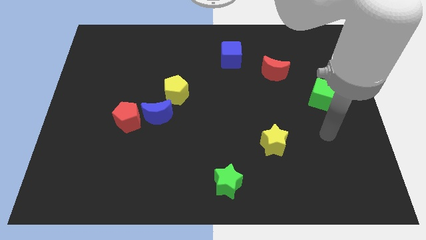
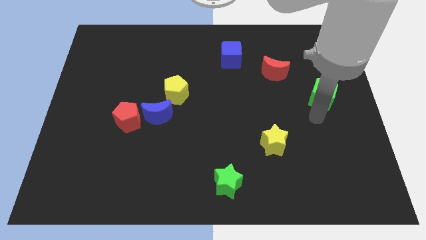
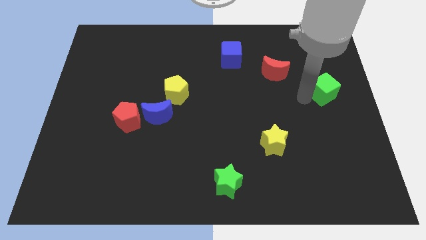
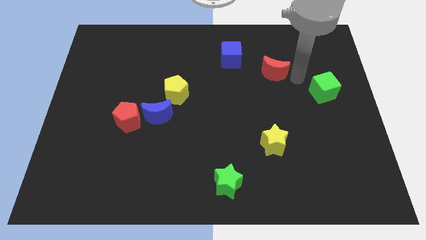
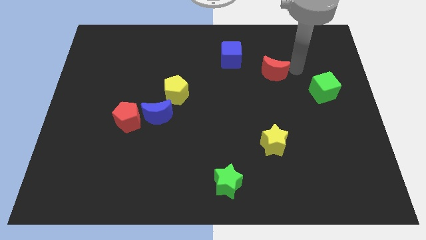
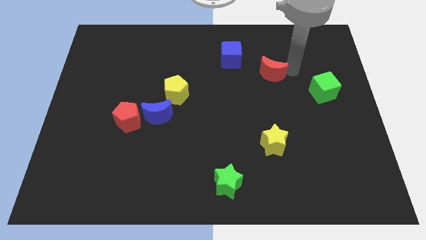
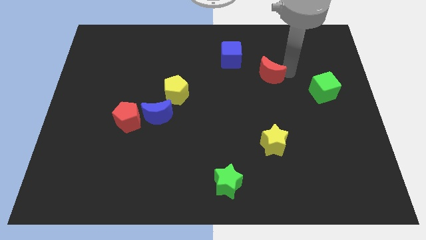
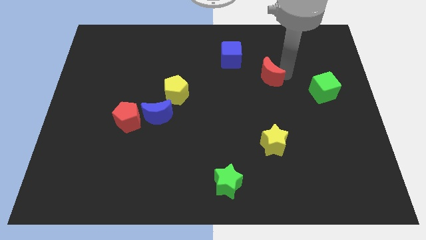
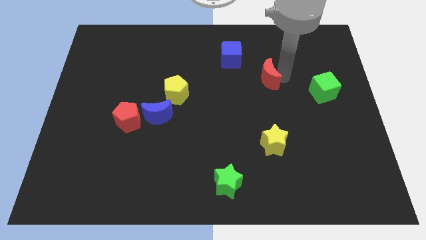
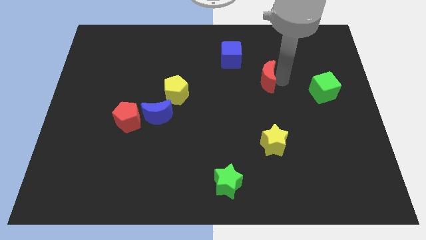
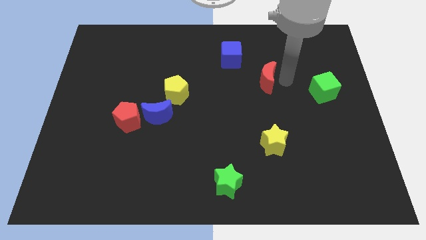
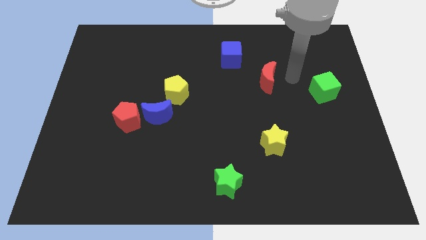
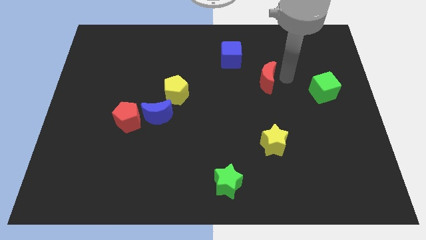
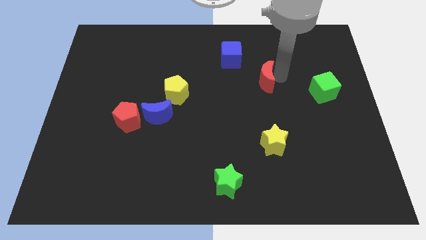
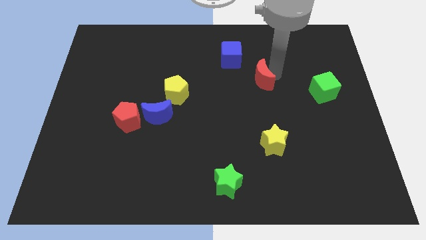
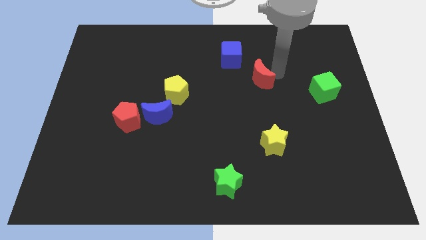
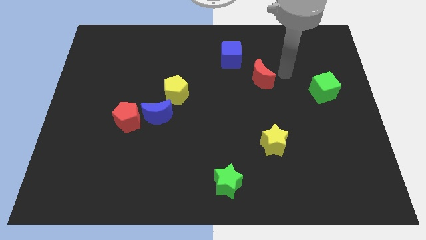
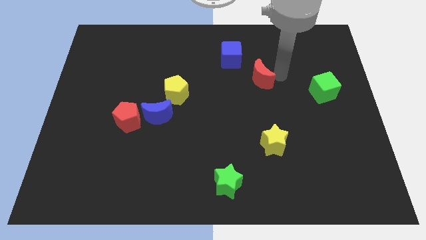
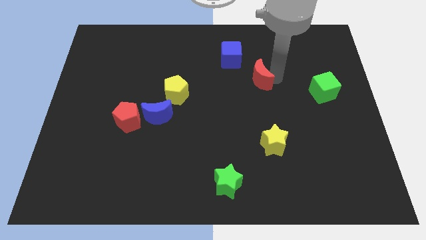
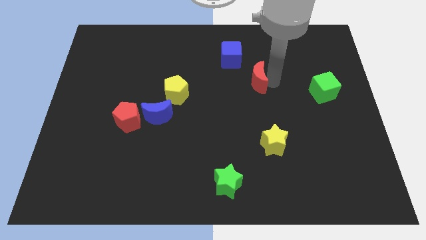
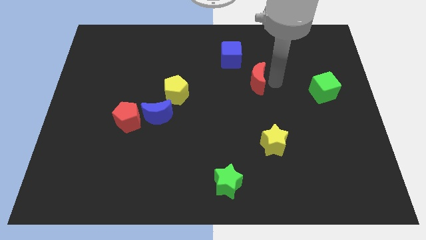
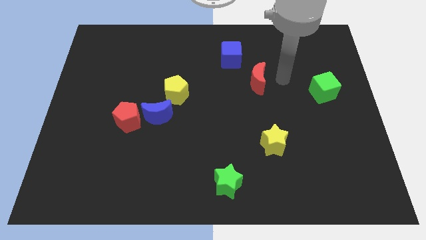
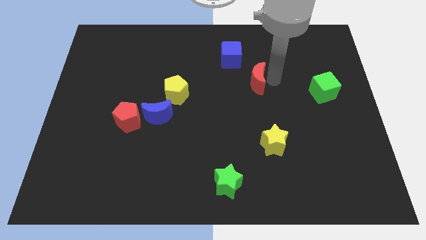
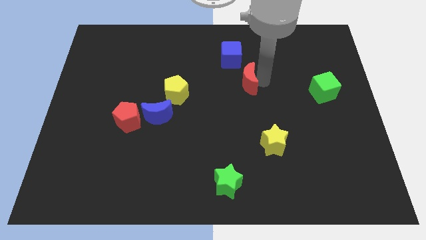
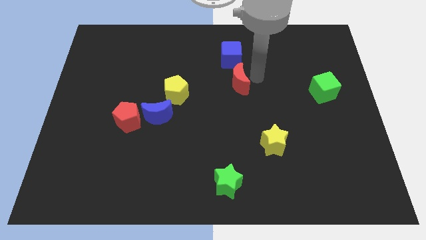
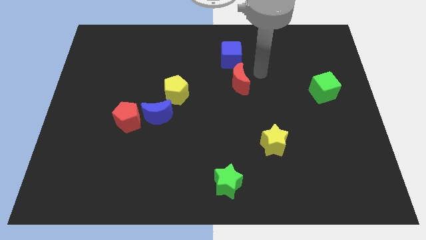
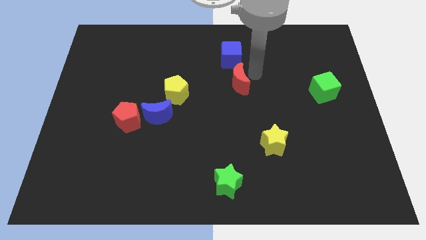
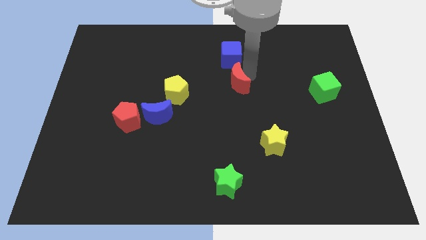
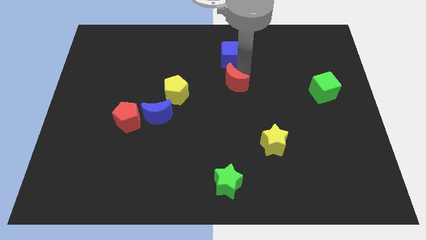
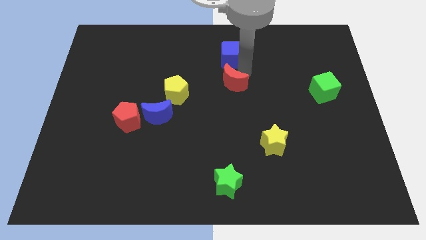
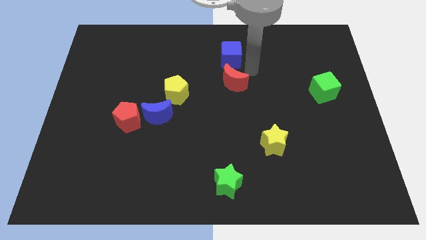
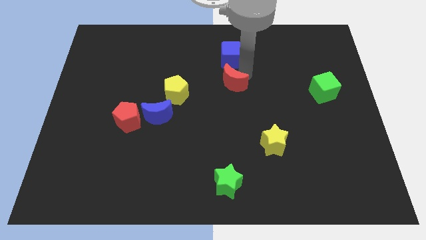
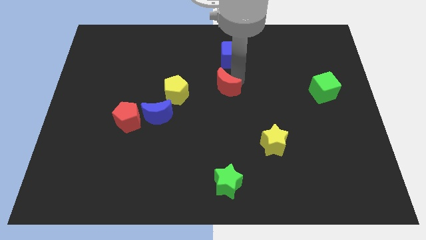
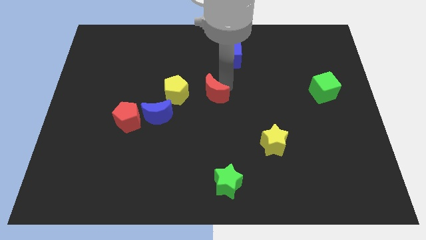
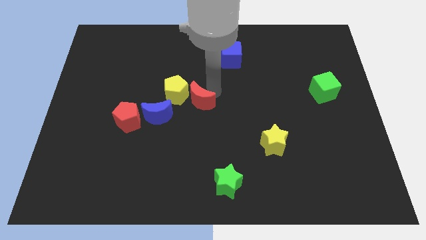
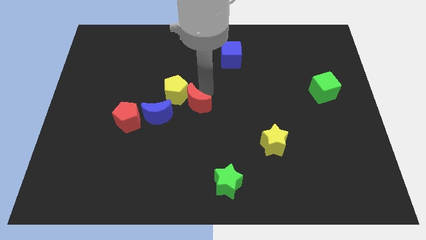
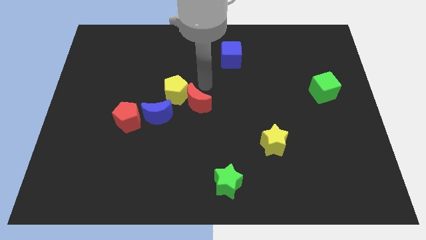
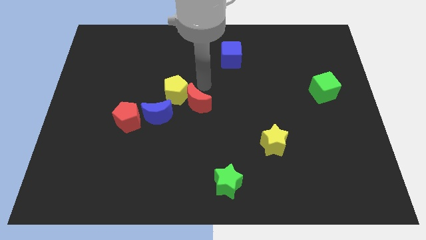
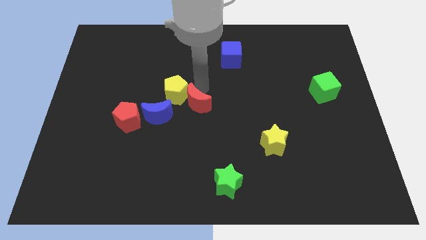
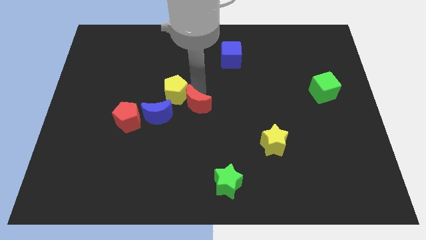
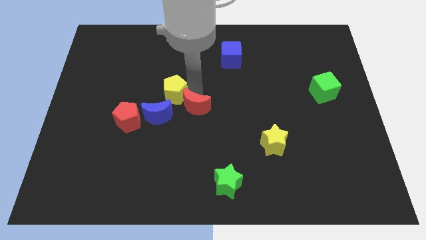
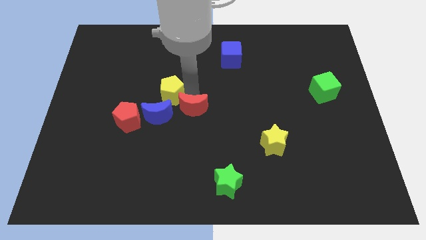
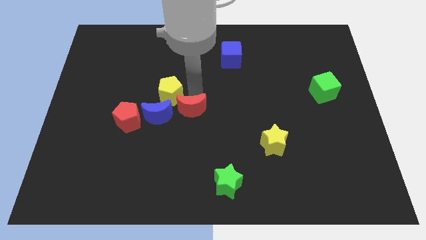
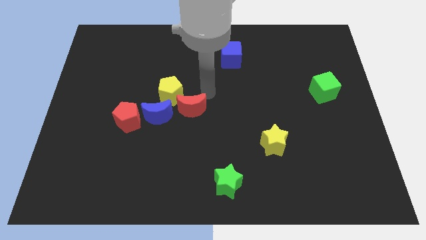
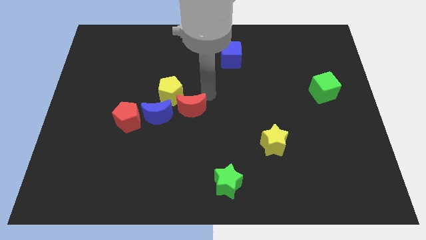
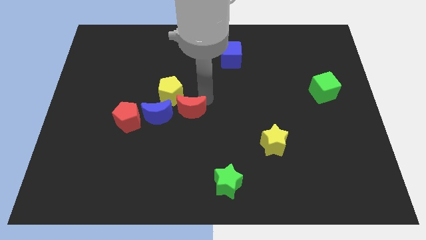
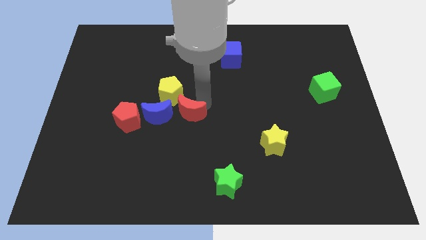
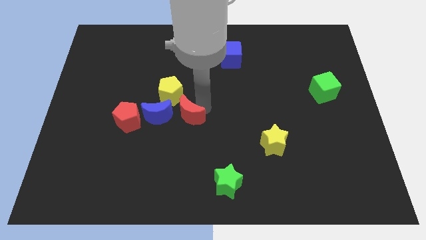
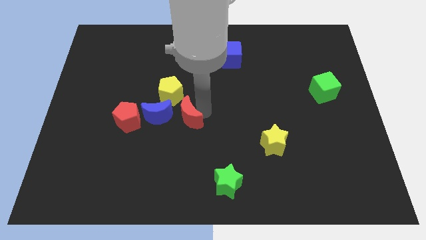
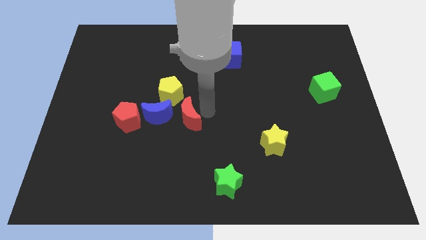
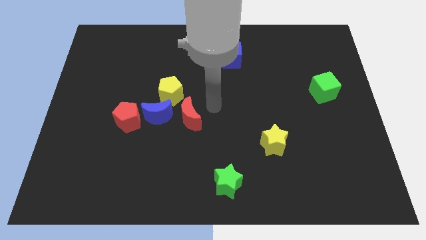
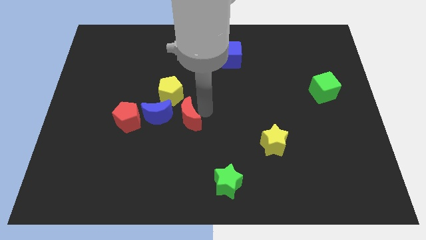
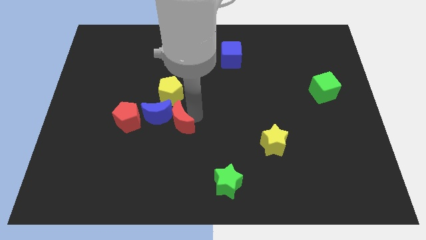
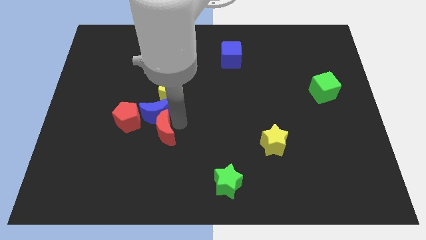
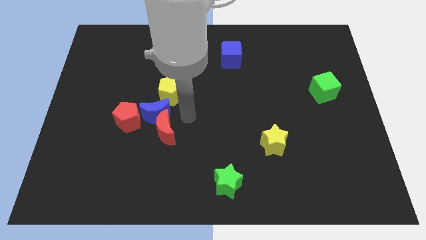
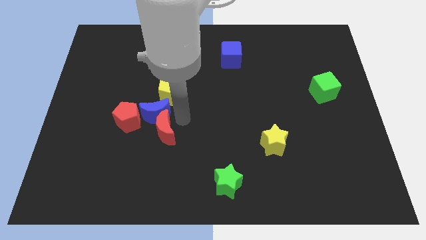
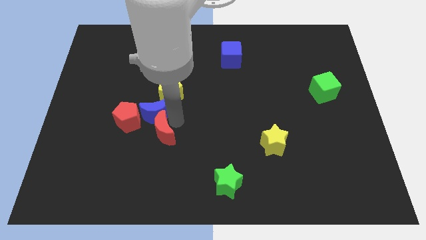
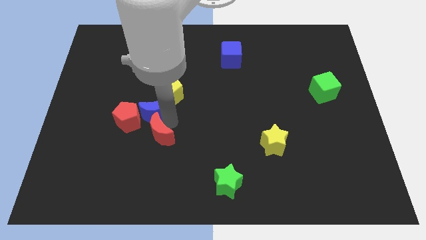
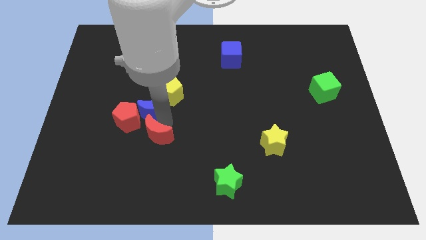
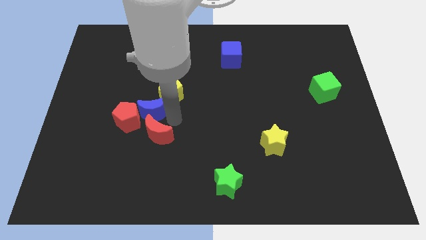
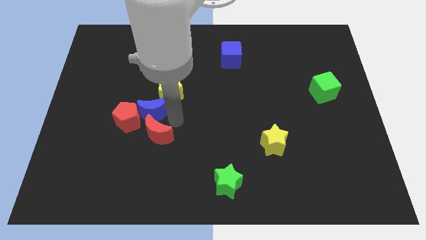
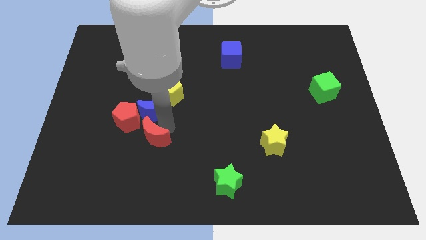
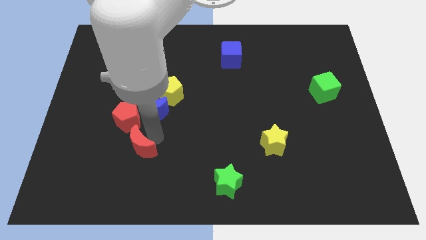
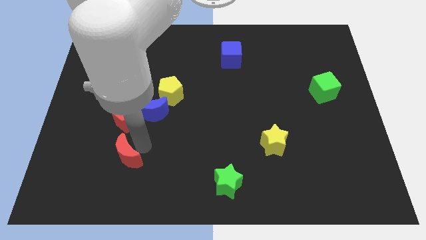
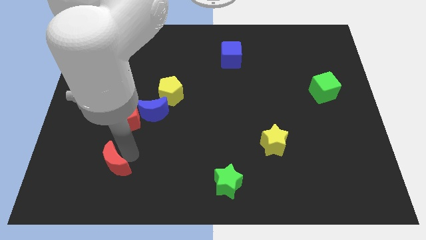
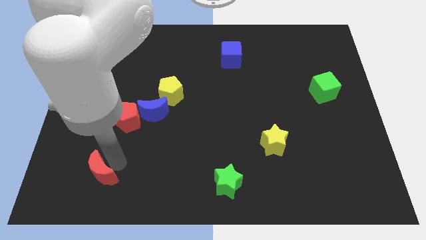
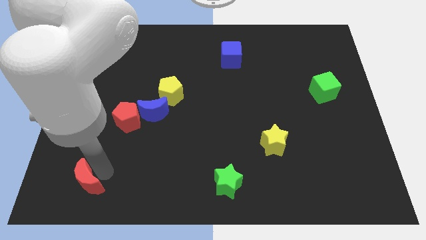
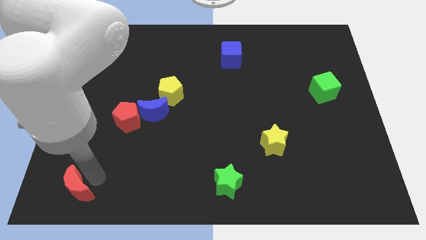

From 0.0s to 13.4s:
push the red moon to the bottom left of the board
